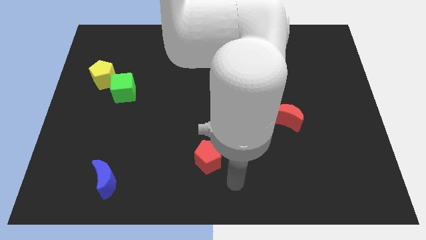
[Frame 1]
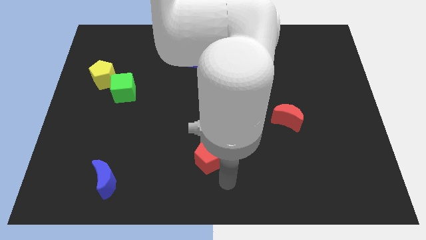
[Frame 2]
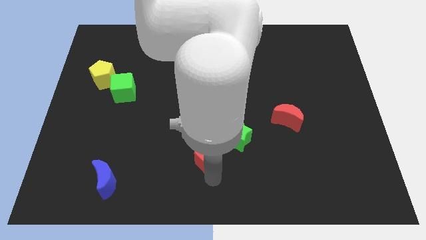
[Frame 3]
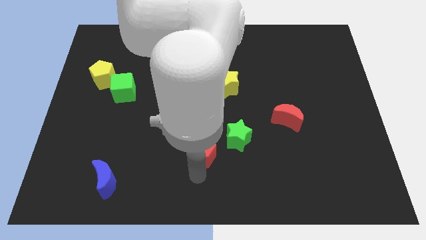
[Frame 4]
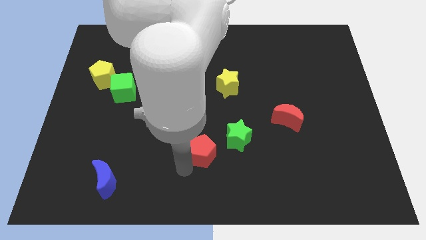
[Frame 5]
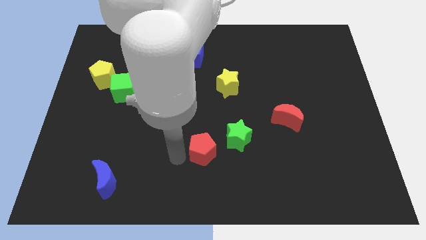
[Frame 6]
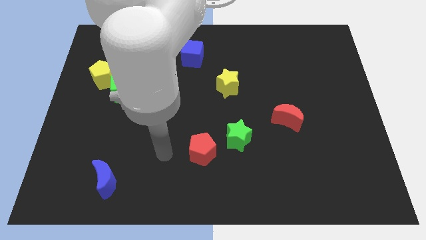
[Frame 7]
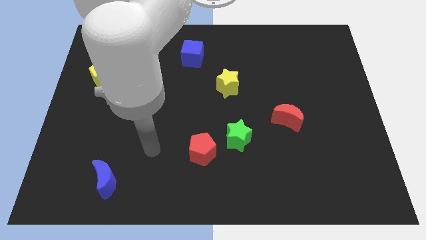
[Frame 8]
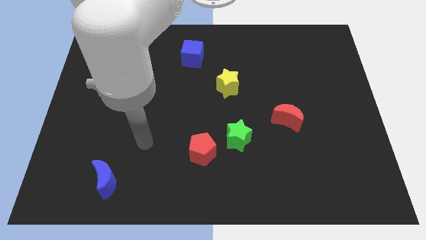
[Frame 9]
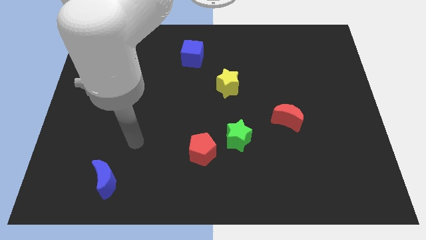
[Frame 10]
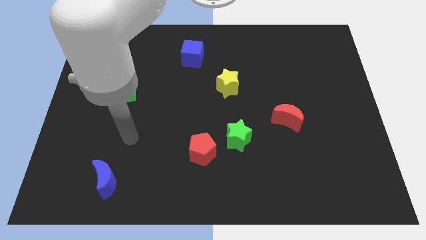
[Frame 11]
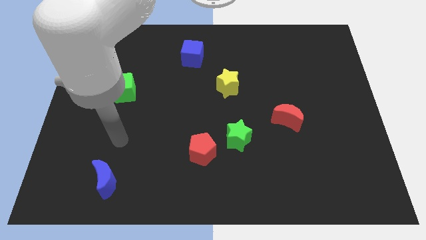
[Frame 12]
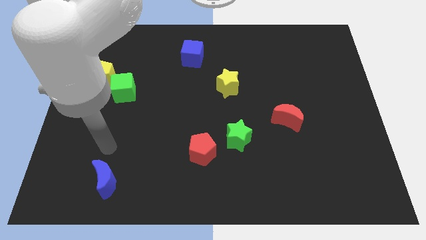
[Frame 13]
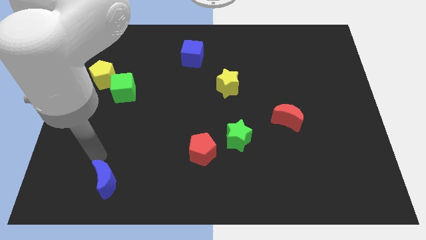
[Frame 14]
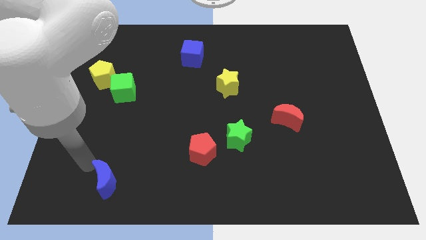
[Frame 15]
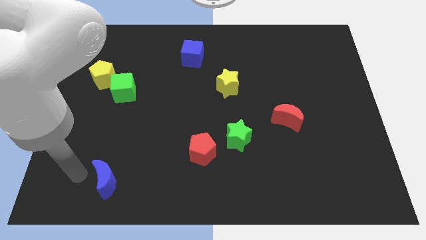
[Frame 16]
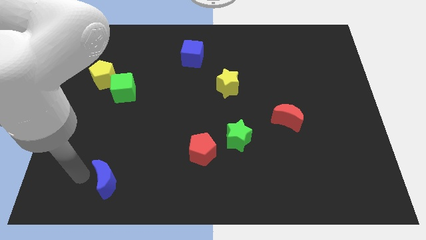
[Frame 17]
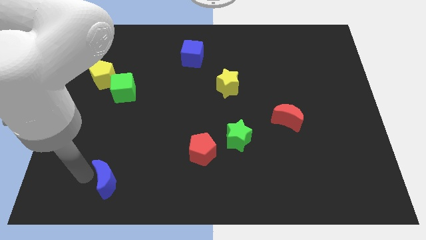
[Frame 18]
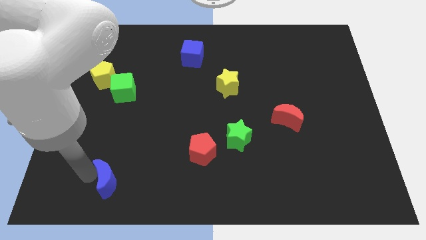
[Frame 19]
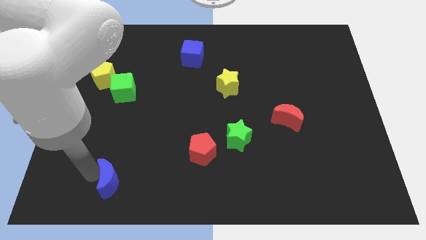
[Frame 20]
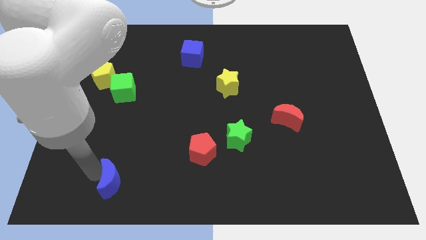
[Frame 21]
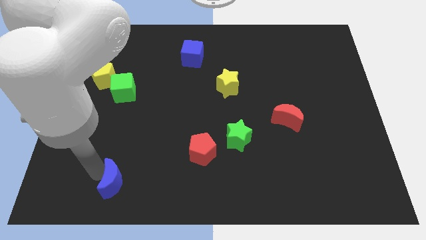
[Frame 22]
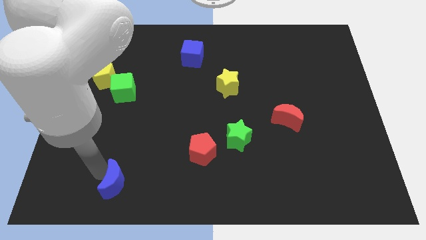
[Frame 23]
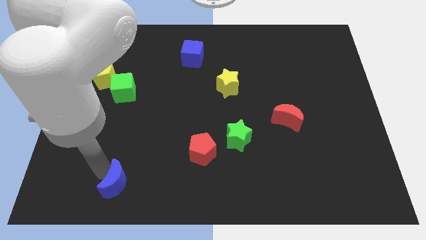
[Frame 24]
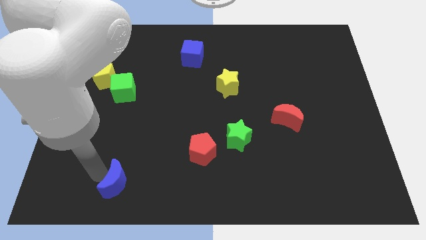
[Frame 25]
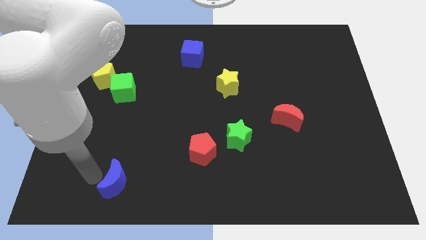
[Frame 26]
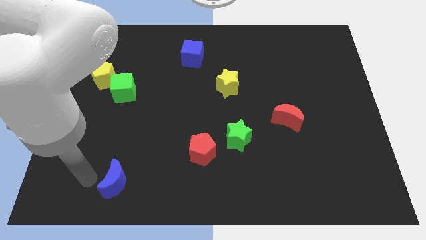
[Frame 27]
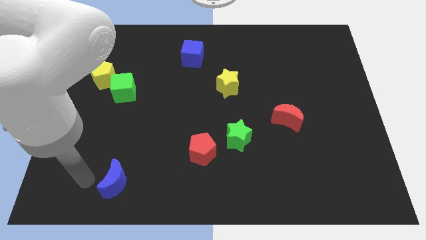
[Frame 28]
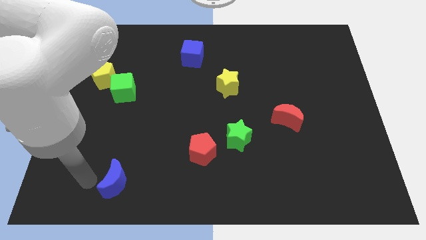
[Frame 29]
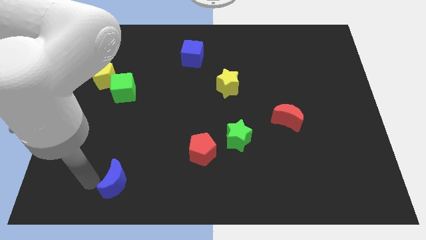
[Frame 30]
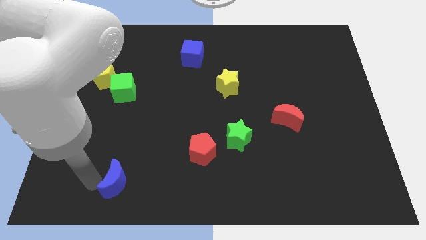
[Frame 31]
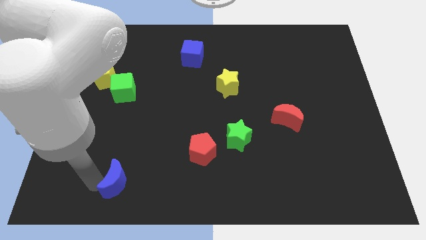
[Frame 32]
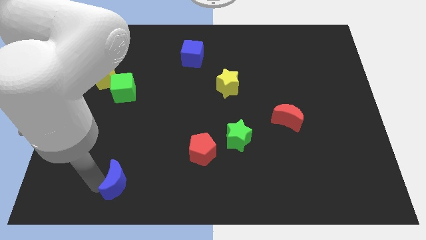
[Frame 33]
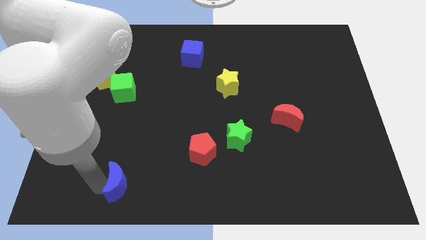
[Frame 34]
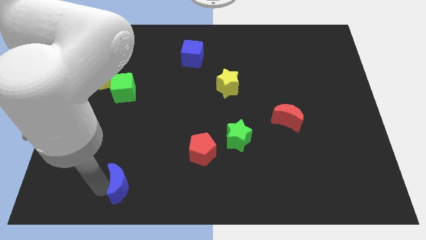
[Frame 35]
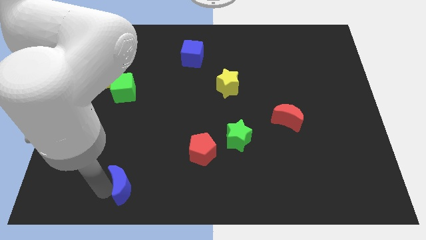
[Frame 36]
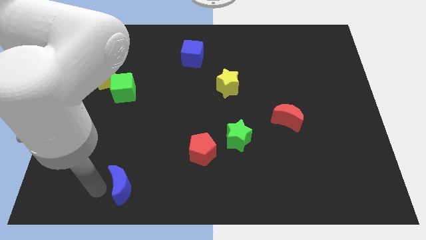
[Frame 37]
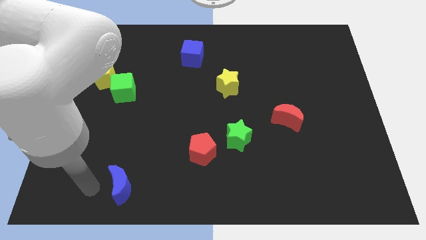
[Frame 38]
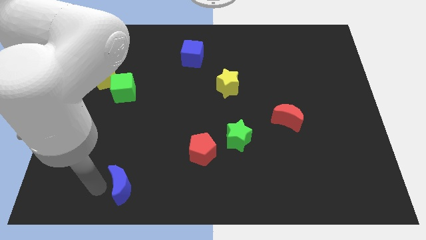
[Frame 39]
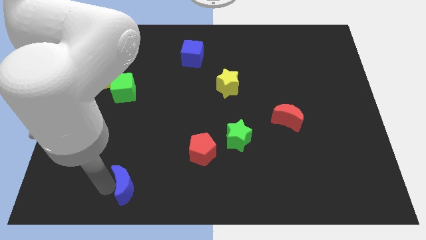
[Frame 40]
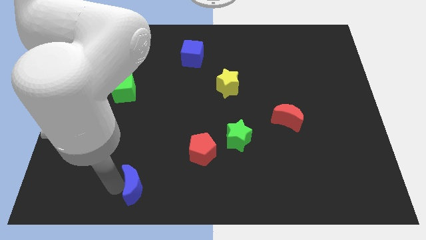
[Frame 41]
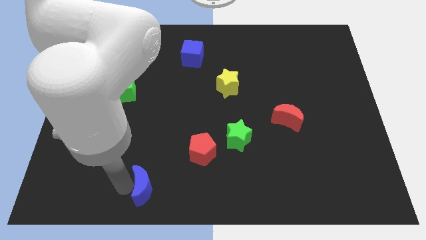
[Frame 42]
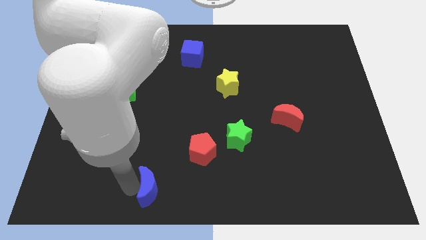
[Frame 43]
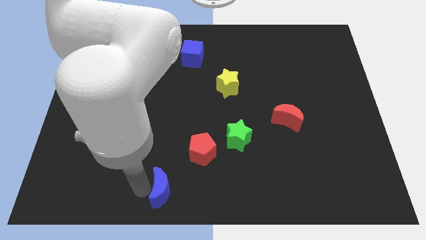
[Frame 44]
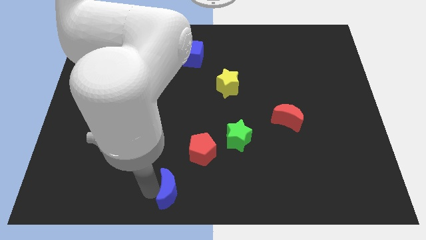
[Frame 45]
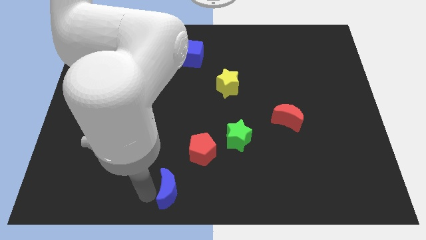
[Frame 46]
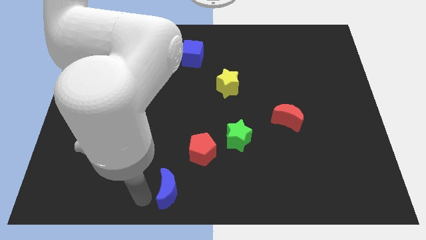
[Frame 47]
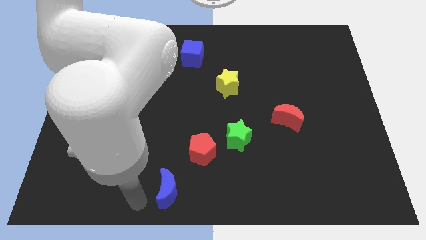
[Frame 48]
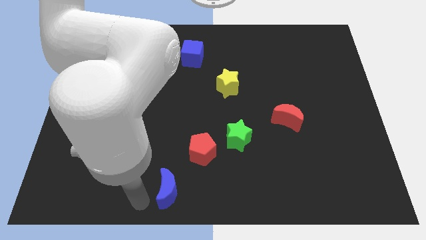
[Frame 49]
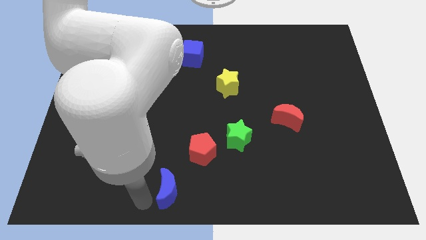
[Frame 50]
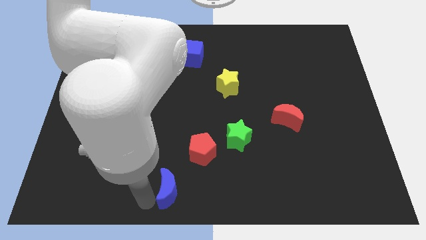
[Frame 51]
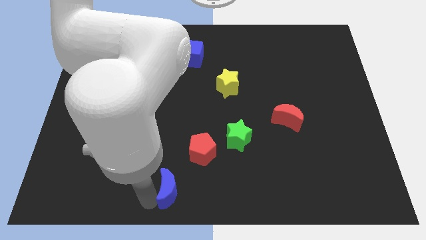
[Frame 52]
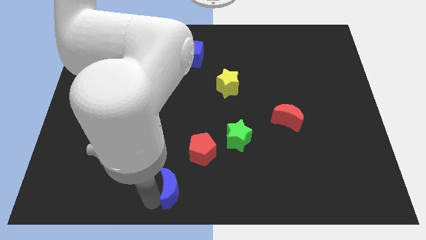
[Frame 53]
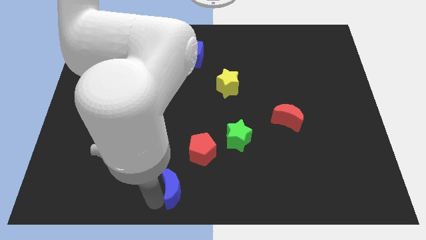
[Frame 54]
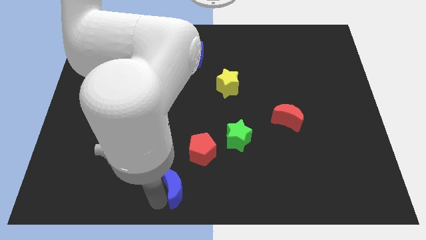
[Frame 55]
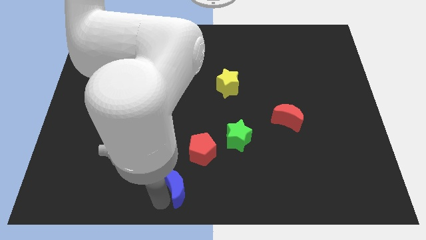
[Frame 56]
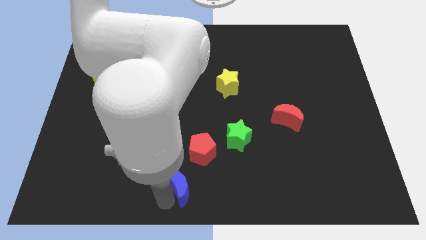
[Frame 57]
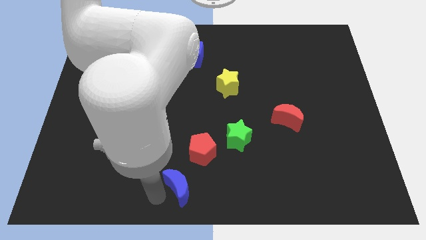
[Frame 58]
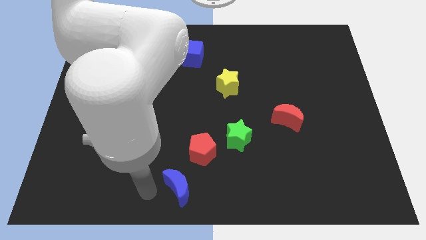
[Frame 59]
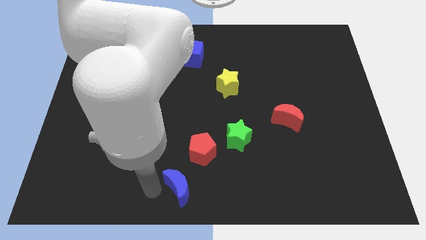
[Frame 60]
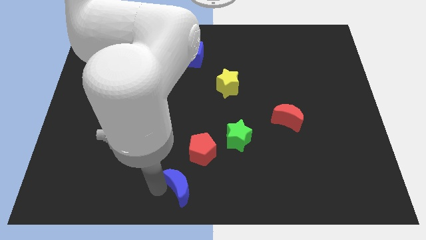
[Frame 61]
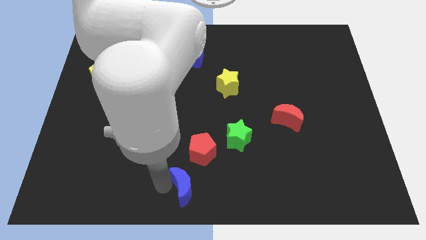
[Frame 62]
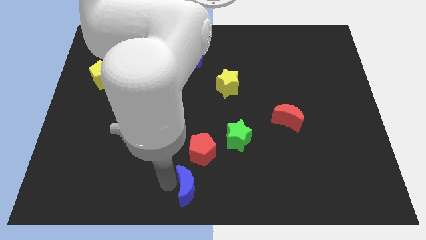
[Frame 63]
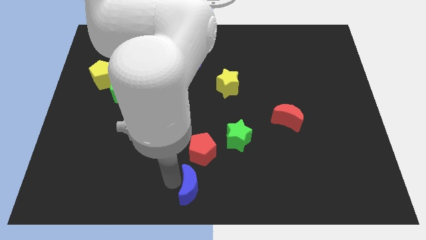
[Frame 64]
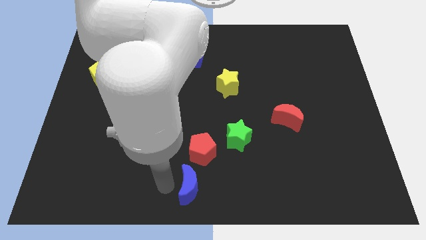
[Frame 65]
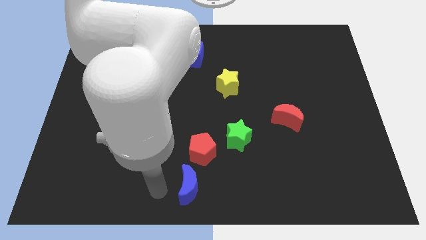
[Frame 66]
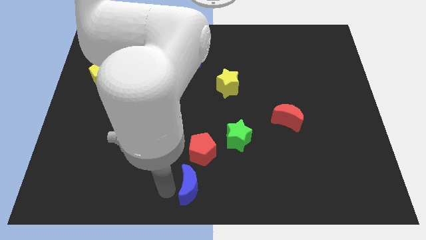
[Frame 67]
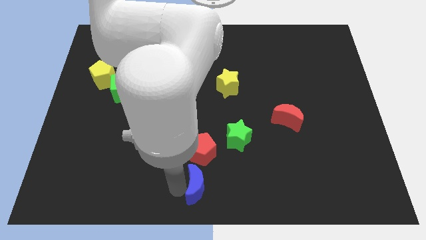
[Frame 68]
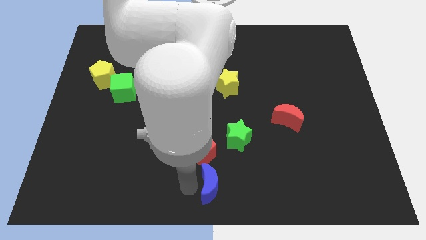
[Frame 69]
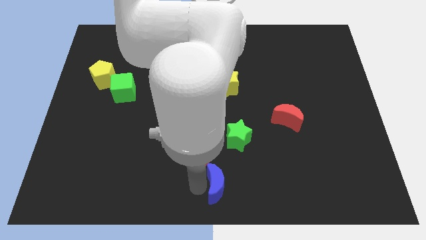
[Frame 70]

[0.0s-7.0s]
push the blue moon to the bottom side of the green star

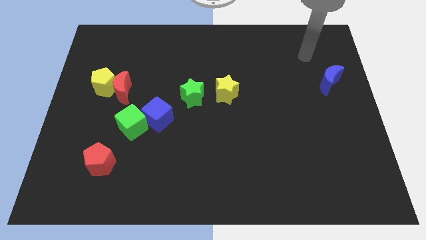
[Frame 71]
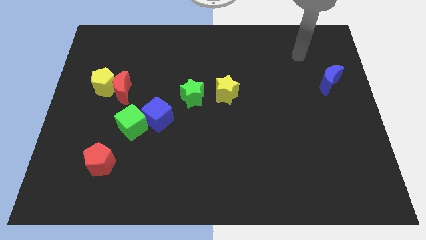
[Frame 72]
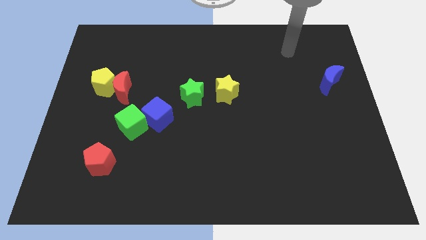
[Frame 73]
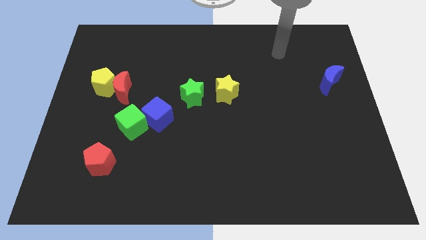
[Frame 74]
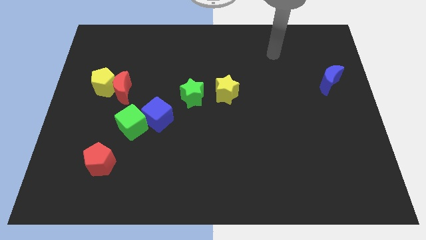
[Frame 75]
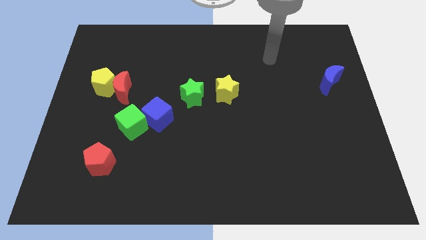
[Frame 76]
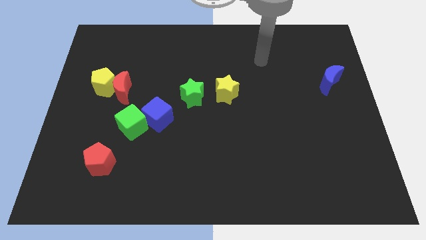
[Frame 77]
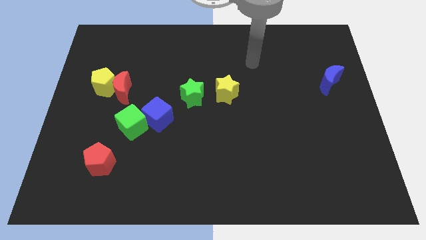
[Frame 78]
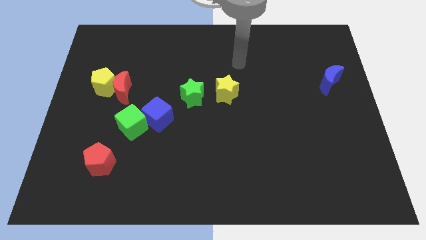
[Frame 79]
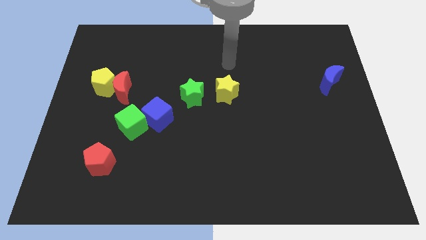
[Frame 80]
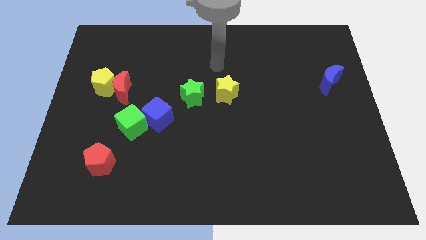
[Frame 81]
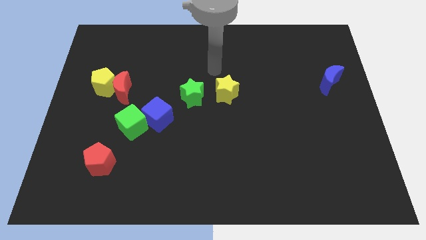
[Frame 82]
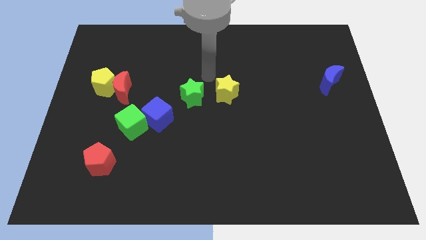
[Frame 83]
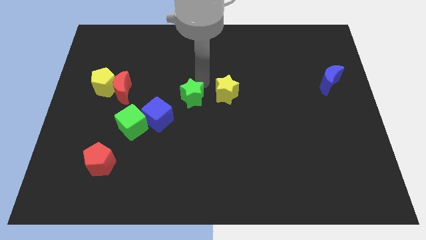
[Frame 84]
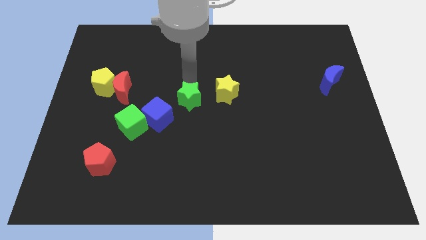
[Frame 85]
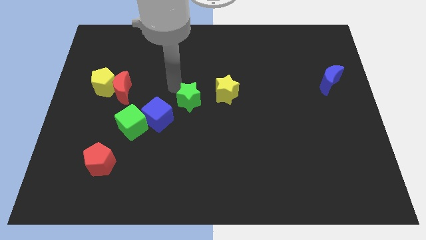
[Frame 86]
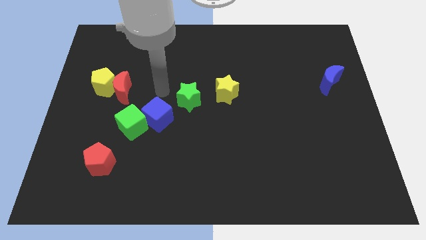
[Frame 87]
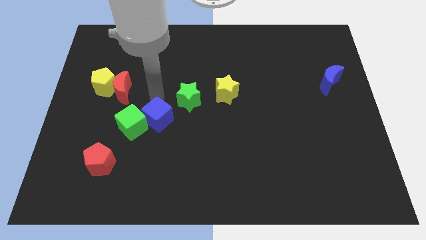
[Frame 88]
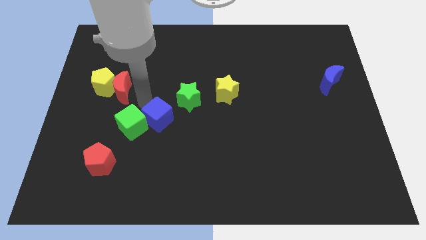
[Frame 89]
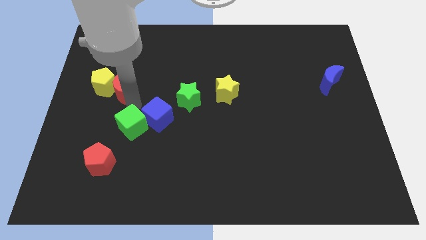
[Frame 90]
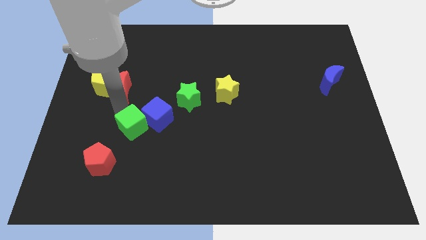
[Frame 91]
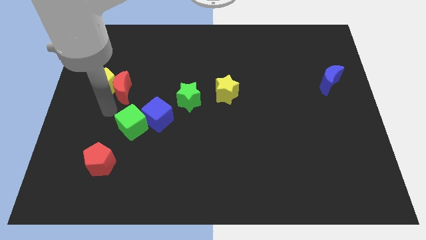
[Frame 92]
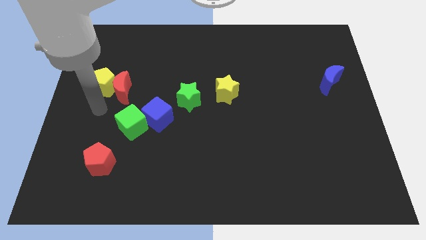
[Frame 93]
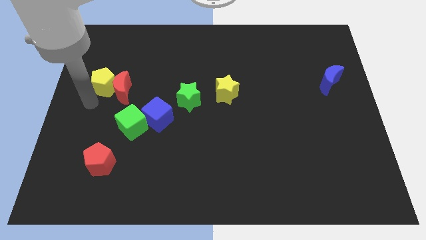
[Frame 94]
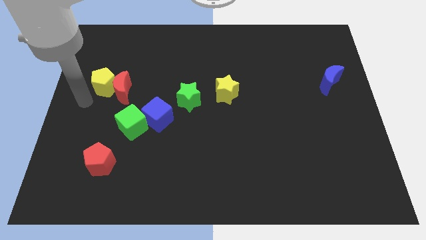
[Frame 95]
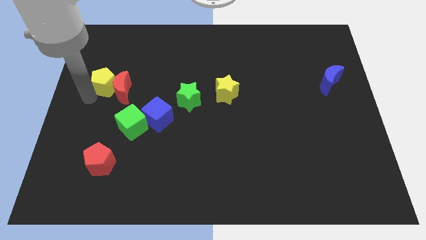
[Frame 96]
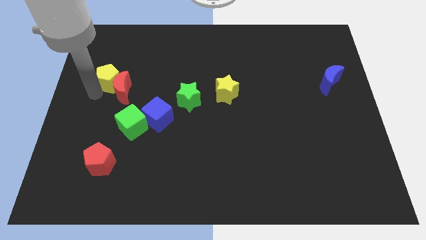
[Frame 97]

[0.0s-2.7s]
slide the yellow pentagon above the red moon
